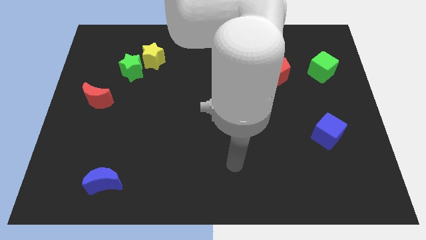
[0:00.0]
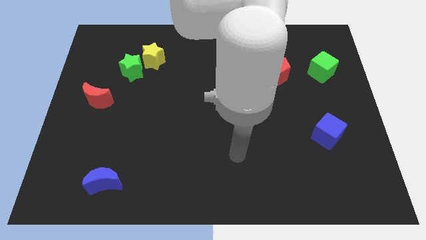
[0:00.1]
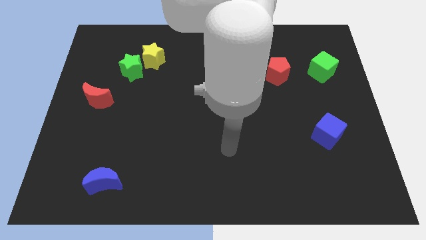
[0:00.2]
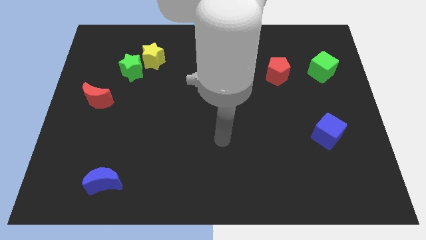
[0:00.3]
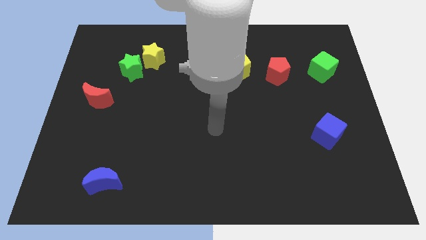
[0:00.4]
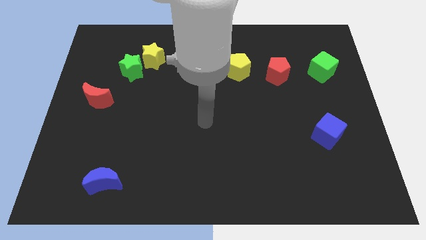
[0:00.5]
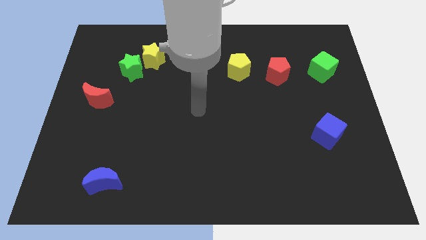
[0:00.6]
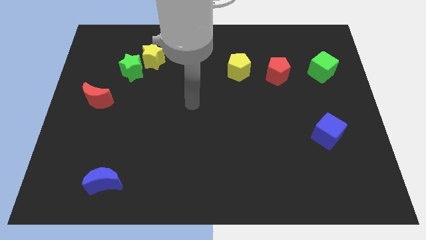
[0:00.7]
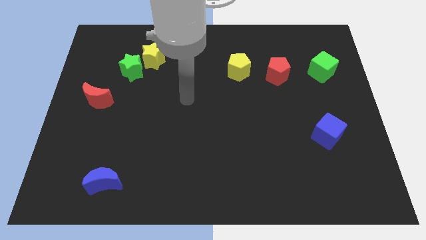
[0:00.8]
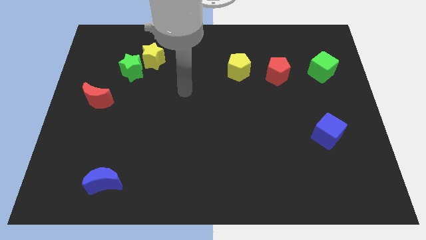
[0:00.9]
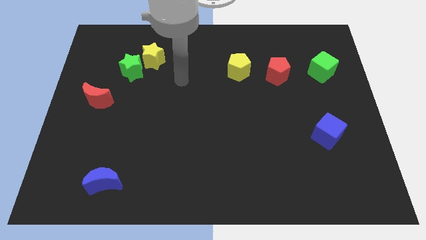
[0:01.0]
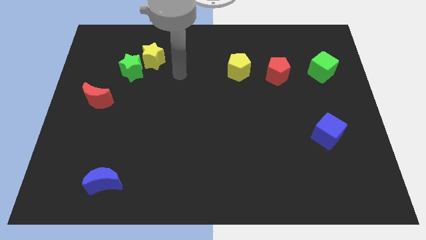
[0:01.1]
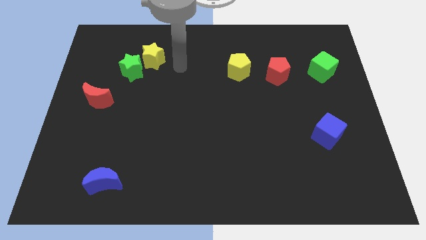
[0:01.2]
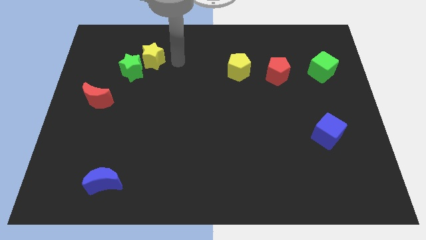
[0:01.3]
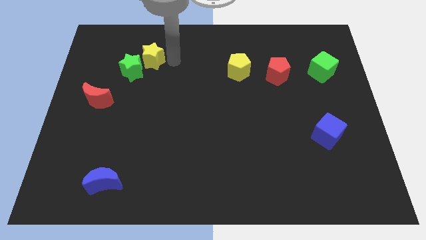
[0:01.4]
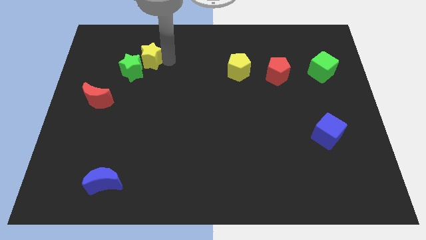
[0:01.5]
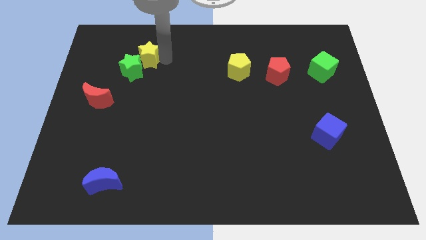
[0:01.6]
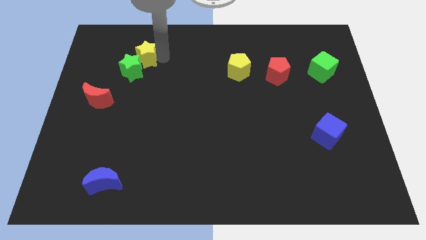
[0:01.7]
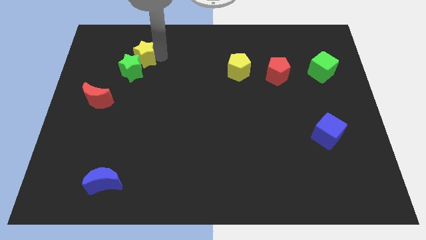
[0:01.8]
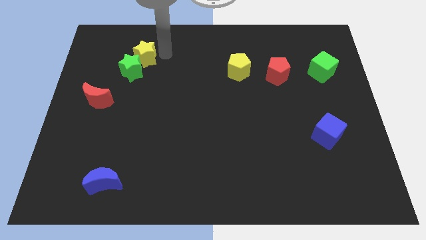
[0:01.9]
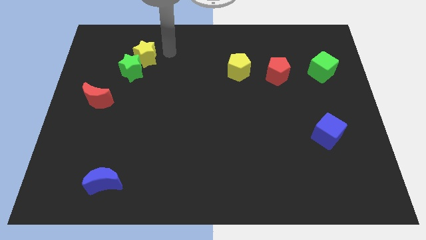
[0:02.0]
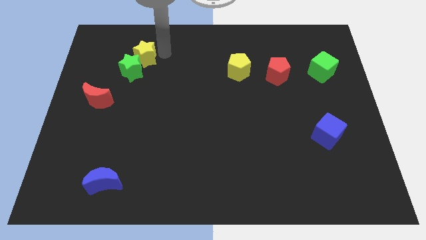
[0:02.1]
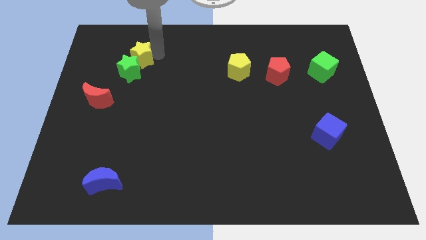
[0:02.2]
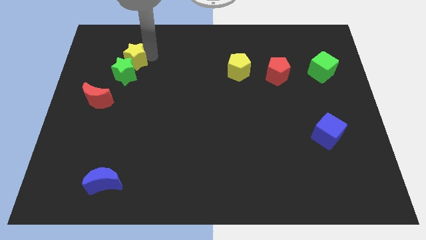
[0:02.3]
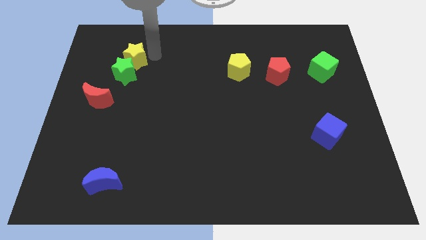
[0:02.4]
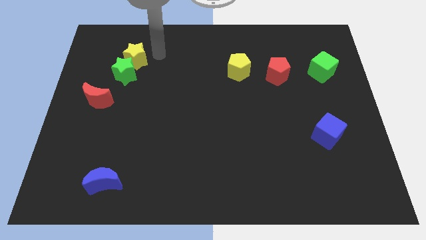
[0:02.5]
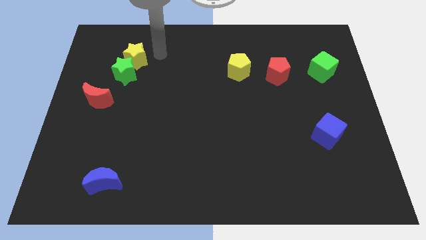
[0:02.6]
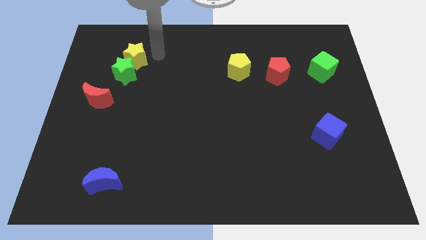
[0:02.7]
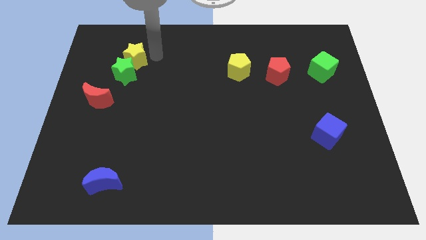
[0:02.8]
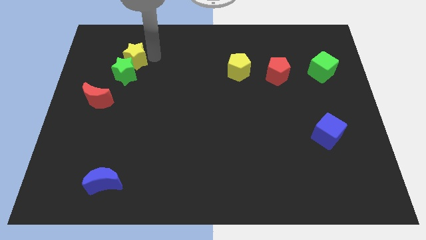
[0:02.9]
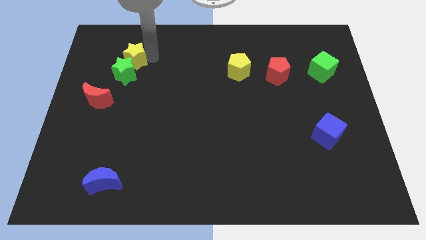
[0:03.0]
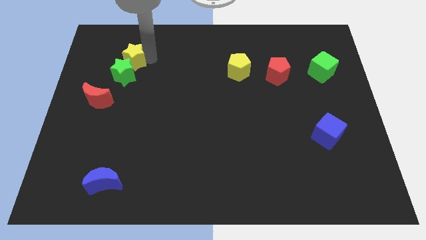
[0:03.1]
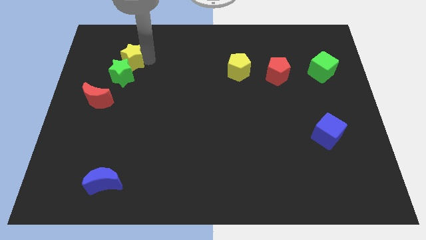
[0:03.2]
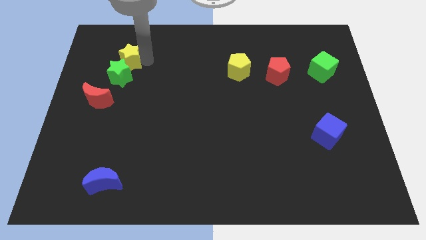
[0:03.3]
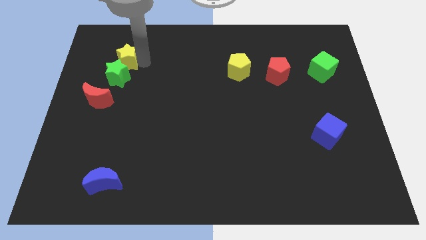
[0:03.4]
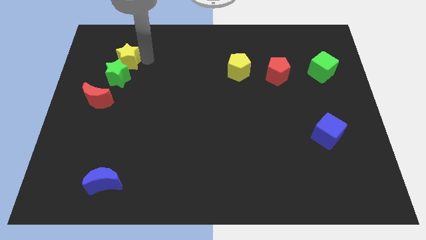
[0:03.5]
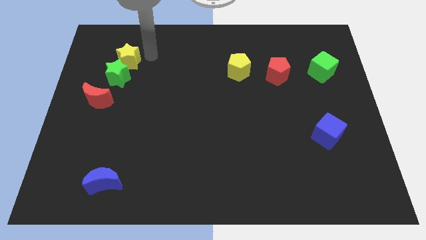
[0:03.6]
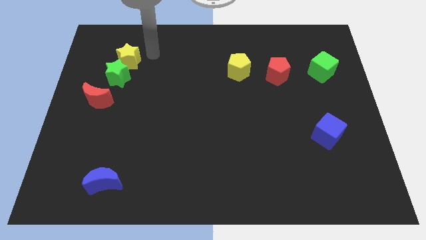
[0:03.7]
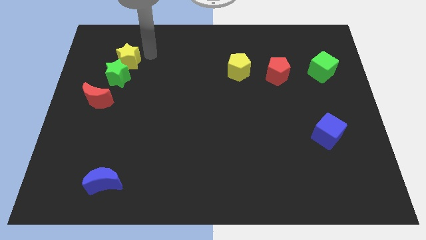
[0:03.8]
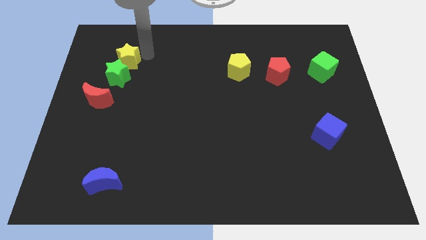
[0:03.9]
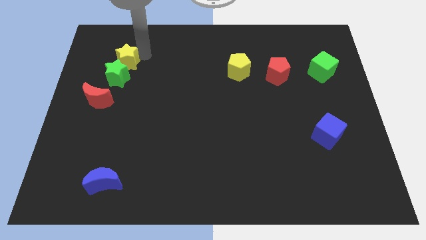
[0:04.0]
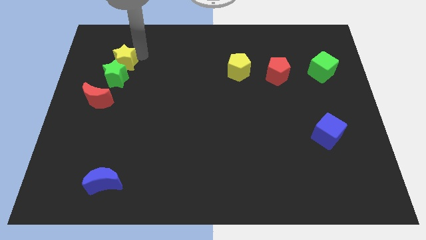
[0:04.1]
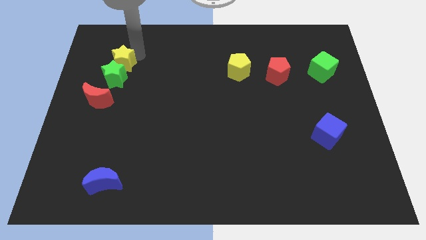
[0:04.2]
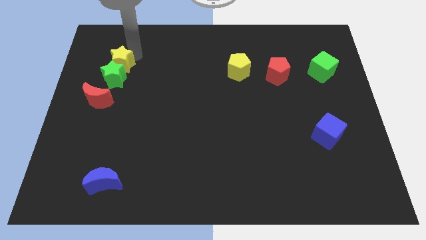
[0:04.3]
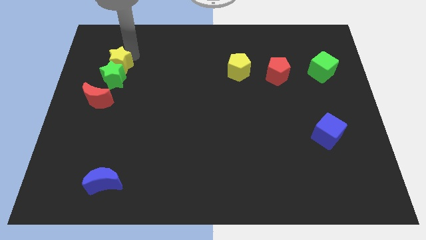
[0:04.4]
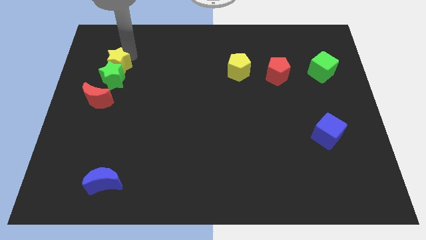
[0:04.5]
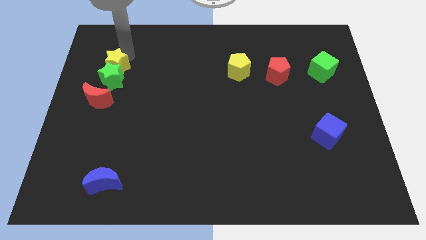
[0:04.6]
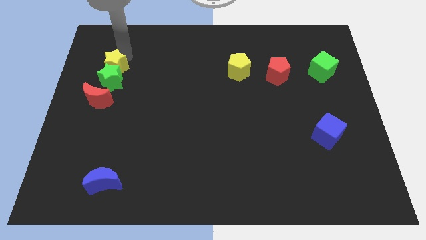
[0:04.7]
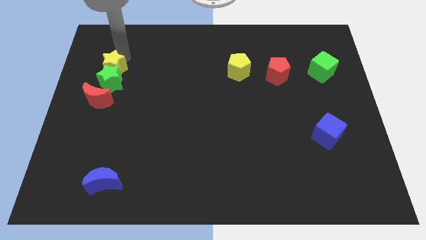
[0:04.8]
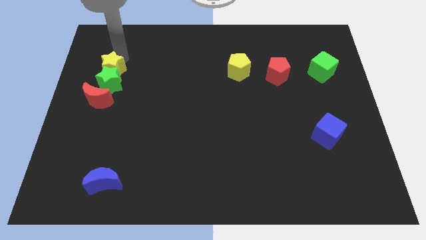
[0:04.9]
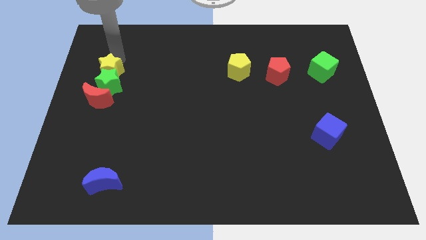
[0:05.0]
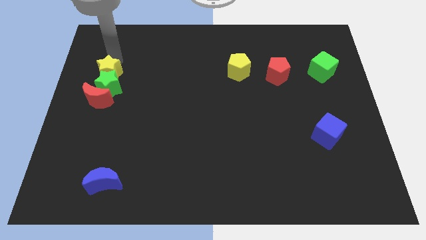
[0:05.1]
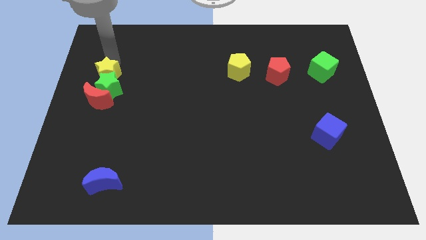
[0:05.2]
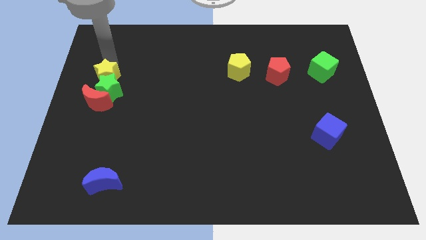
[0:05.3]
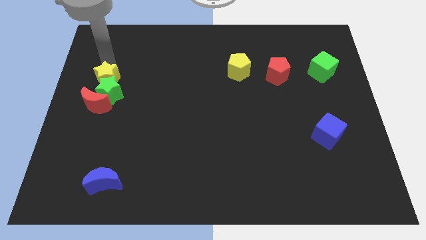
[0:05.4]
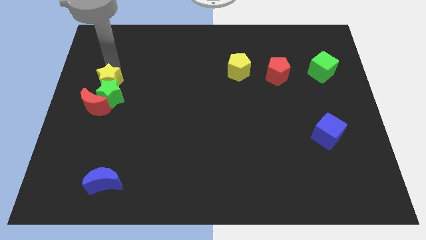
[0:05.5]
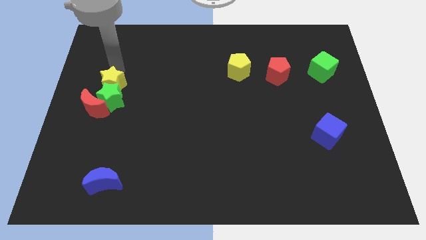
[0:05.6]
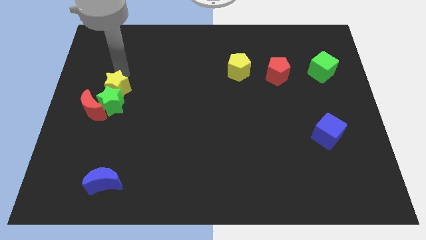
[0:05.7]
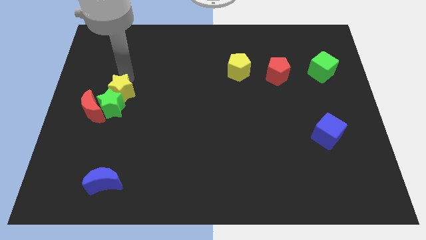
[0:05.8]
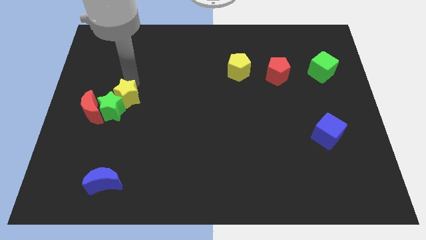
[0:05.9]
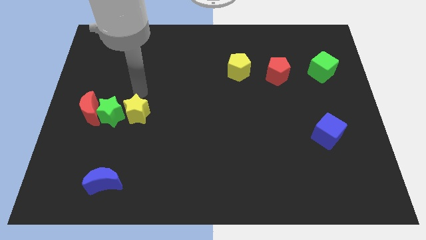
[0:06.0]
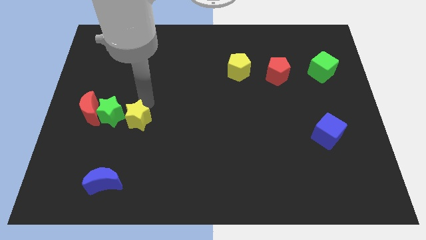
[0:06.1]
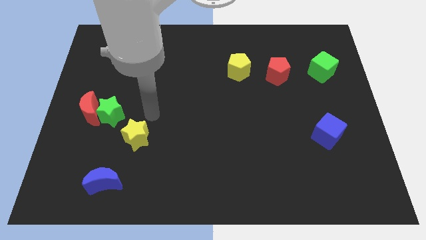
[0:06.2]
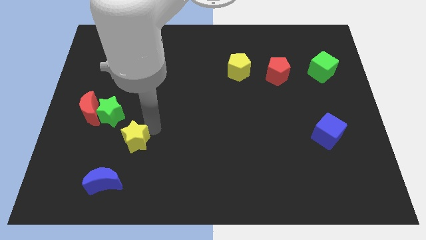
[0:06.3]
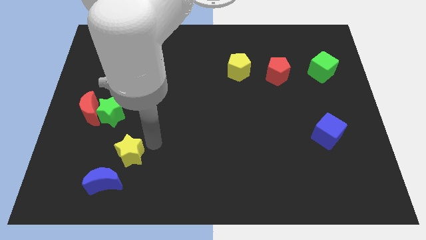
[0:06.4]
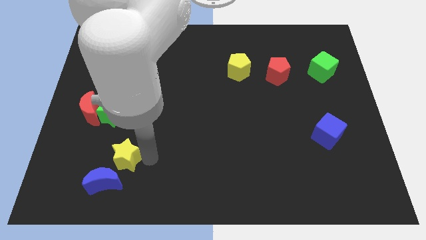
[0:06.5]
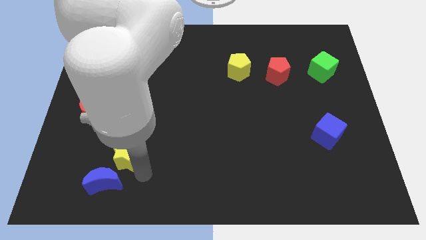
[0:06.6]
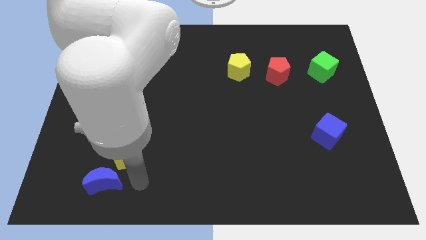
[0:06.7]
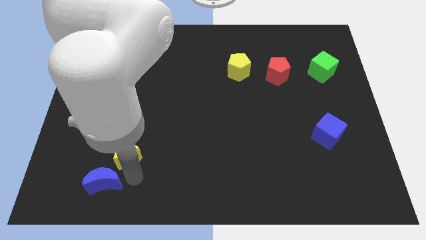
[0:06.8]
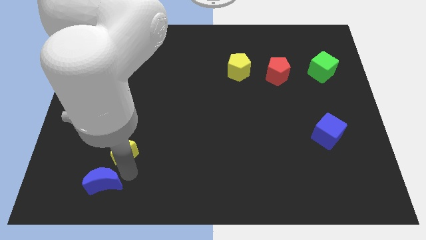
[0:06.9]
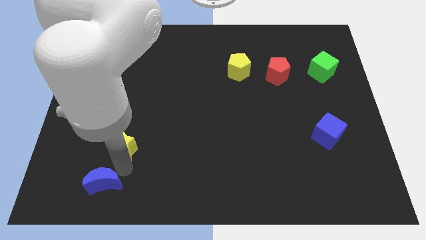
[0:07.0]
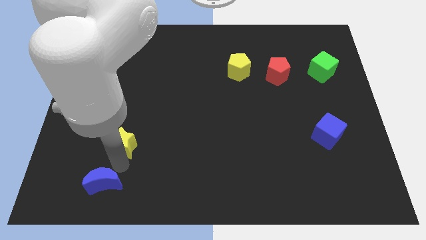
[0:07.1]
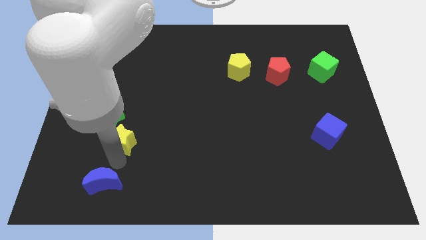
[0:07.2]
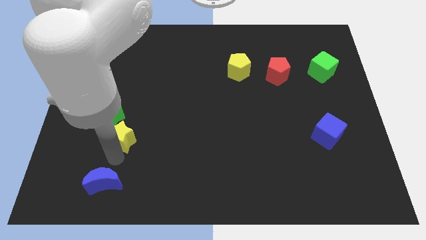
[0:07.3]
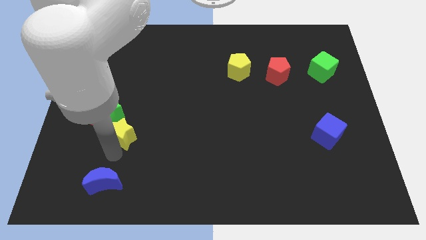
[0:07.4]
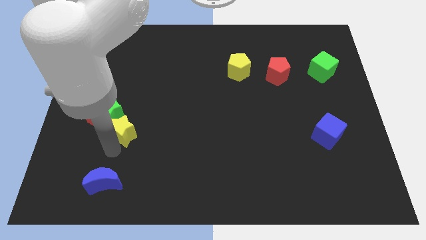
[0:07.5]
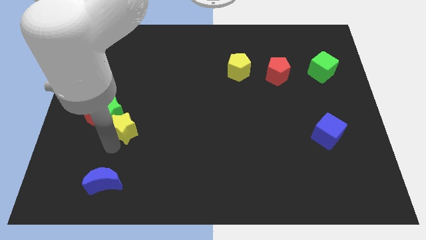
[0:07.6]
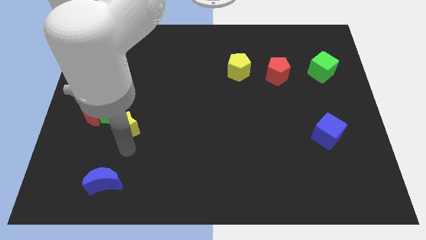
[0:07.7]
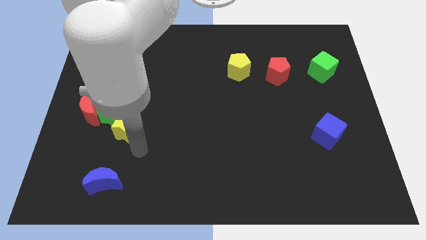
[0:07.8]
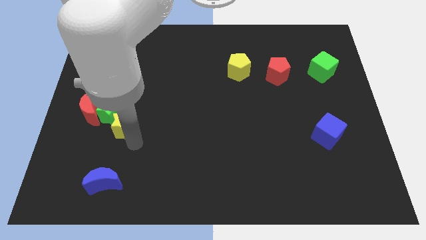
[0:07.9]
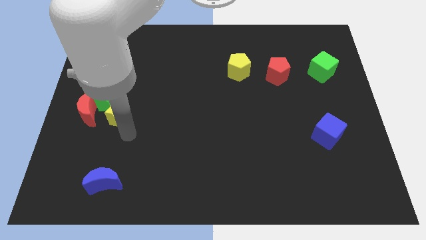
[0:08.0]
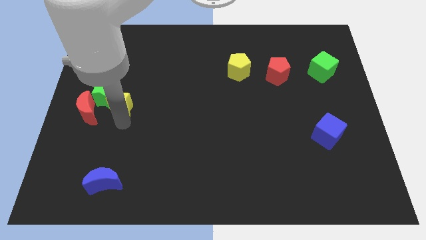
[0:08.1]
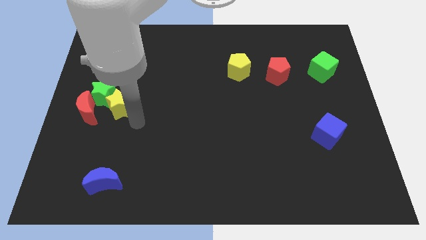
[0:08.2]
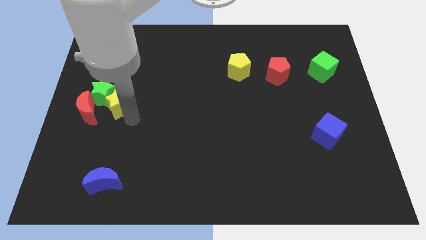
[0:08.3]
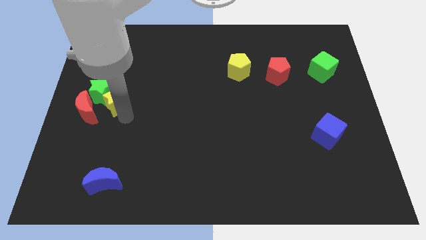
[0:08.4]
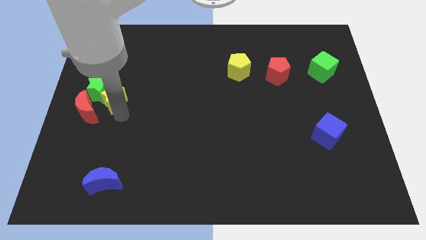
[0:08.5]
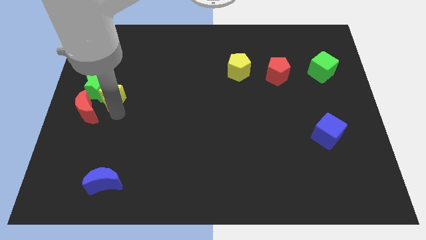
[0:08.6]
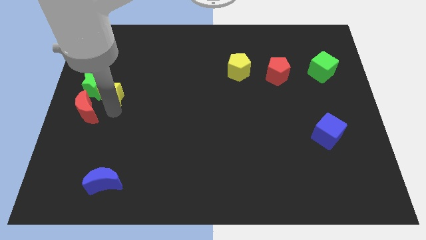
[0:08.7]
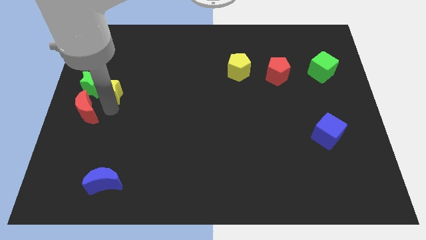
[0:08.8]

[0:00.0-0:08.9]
push the yellow star to the left side of the board
